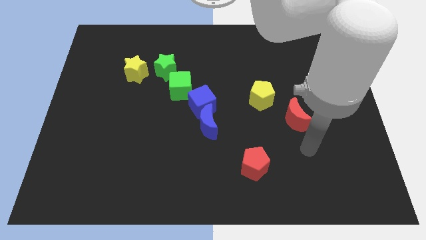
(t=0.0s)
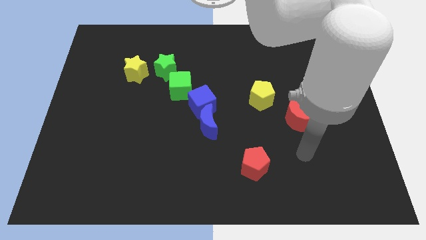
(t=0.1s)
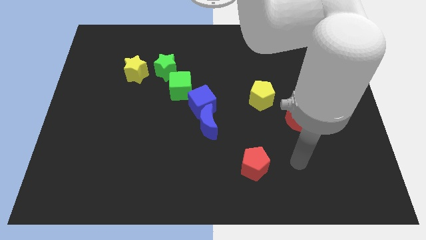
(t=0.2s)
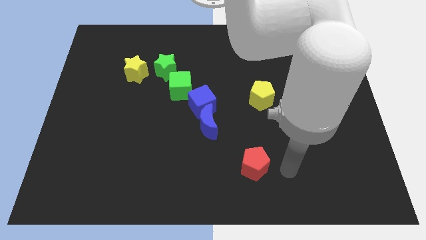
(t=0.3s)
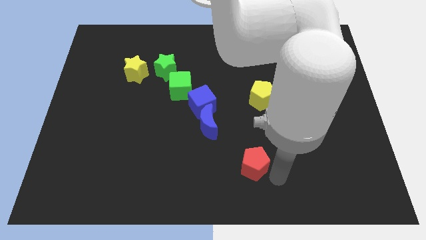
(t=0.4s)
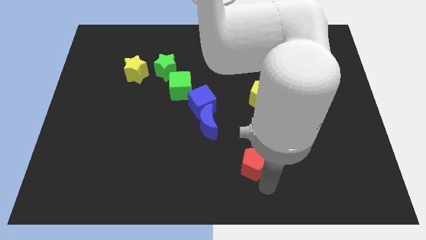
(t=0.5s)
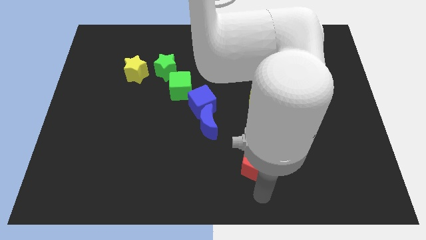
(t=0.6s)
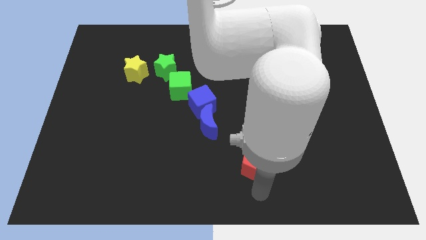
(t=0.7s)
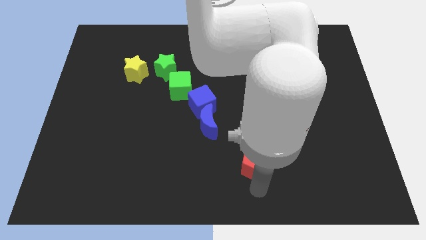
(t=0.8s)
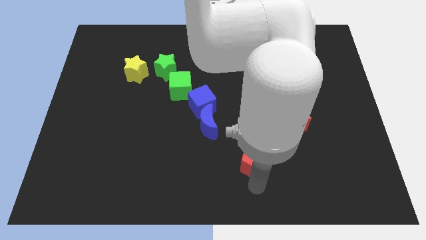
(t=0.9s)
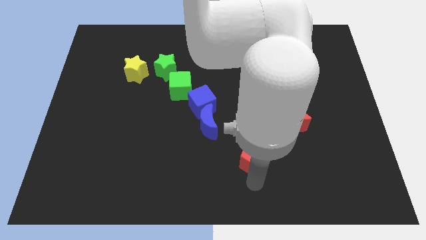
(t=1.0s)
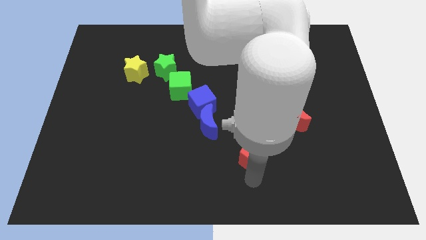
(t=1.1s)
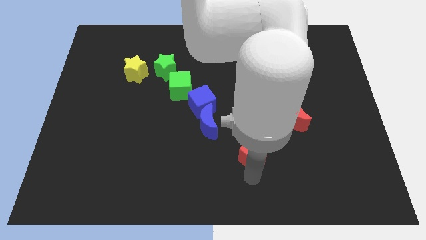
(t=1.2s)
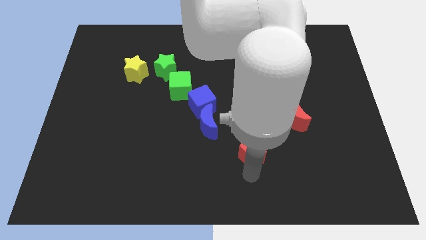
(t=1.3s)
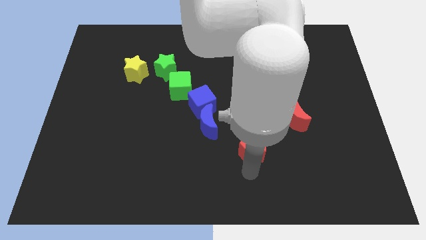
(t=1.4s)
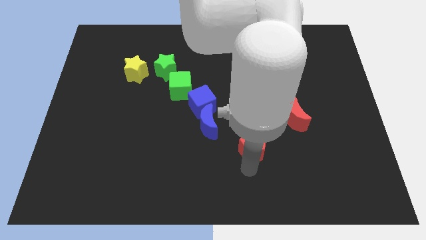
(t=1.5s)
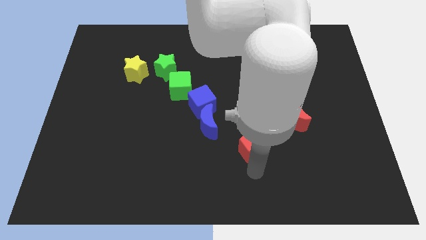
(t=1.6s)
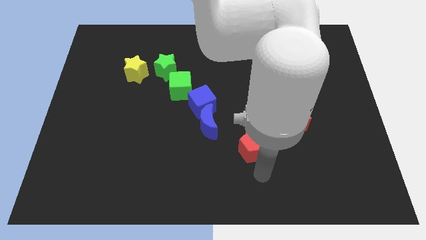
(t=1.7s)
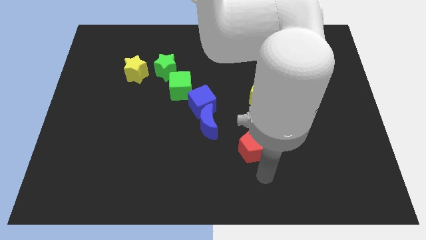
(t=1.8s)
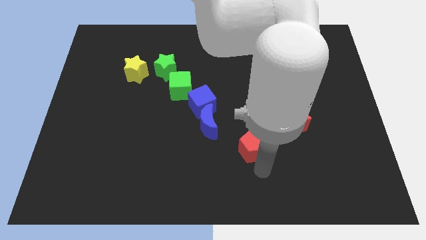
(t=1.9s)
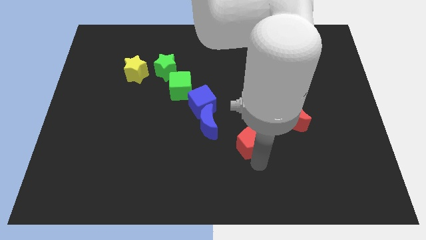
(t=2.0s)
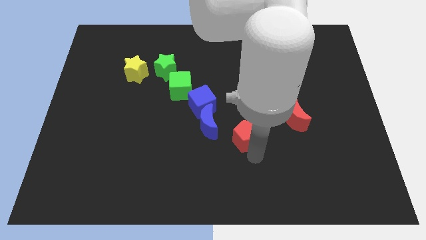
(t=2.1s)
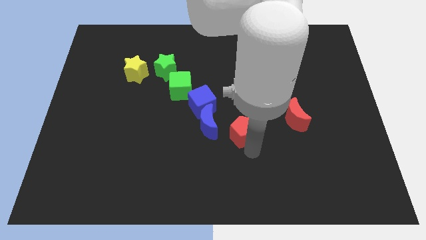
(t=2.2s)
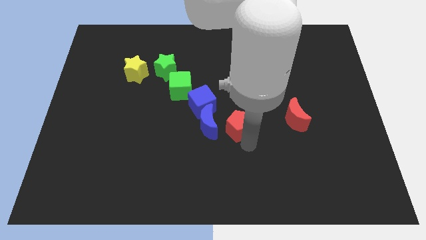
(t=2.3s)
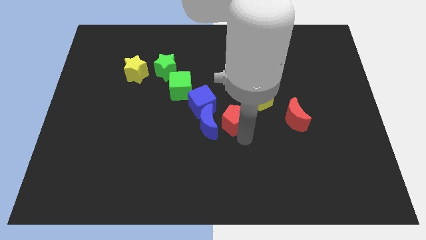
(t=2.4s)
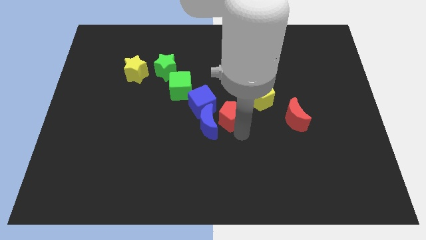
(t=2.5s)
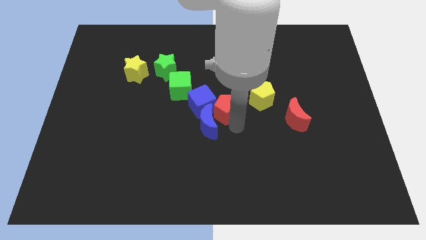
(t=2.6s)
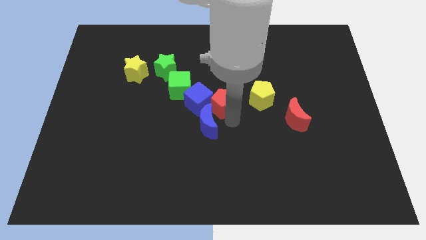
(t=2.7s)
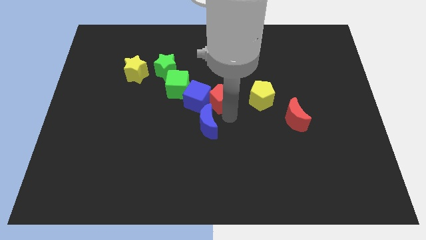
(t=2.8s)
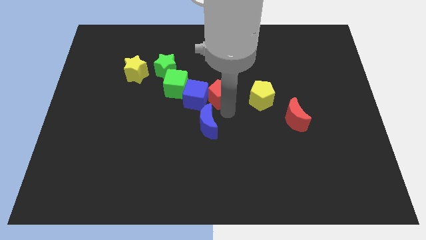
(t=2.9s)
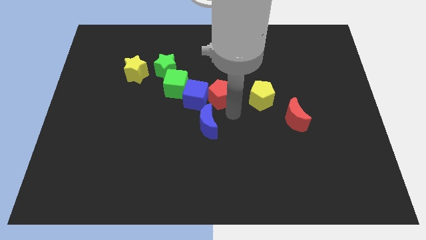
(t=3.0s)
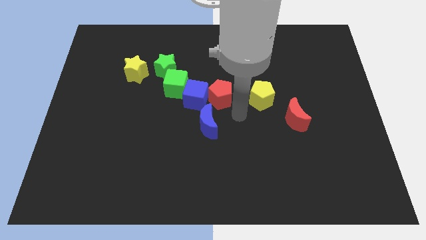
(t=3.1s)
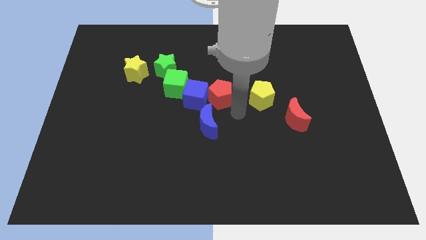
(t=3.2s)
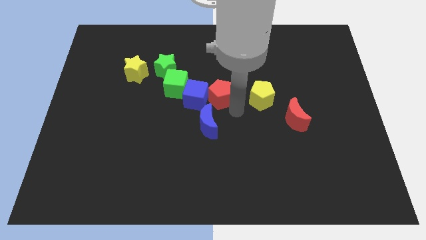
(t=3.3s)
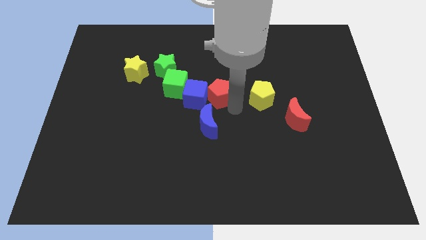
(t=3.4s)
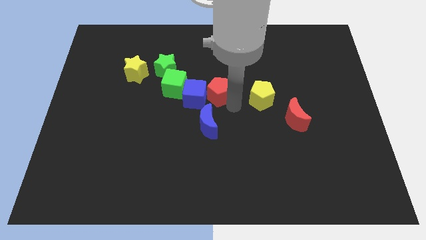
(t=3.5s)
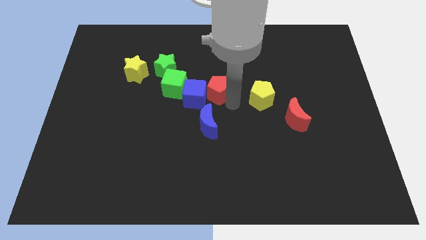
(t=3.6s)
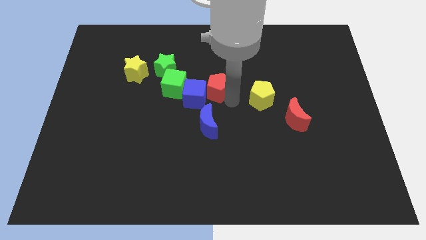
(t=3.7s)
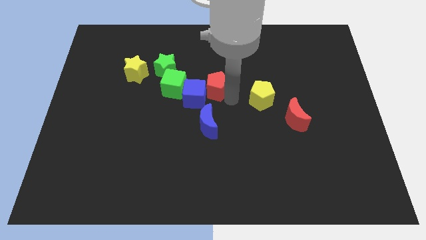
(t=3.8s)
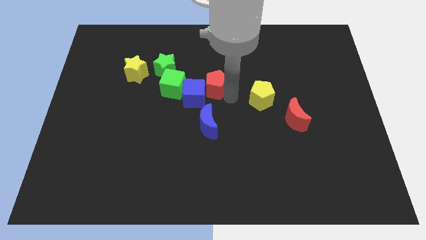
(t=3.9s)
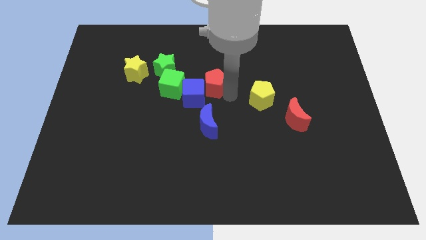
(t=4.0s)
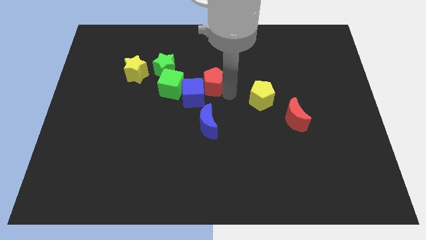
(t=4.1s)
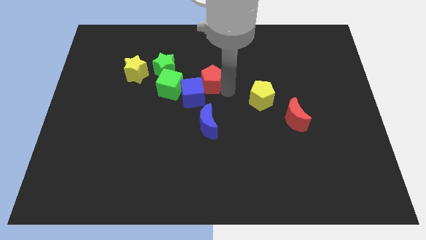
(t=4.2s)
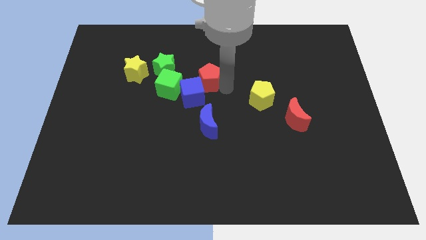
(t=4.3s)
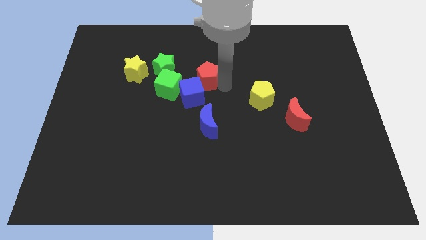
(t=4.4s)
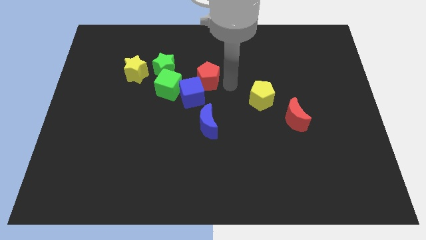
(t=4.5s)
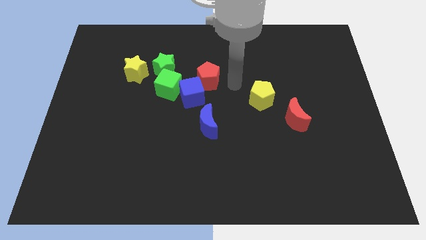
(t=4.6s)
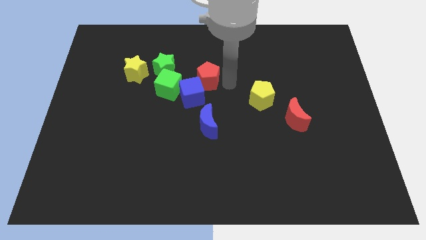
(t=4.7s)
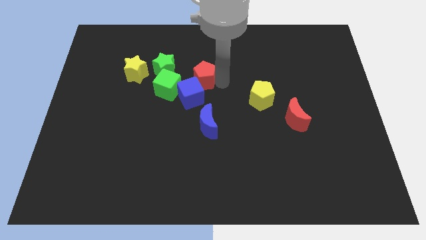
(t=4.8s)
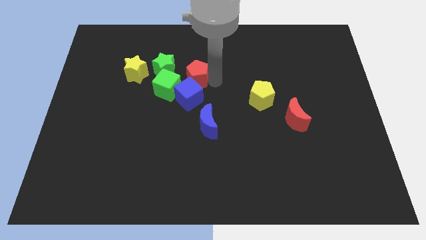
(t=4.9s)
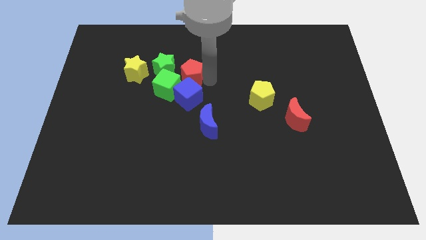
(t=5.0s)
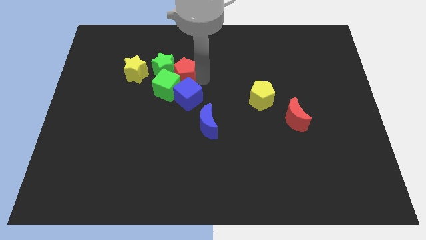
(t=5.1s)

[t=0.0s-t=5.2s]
put the red pentagon towards the green star

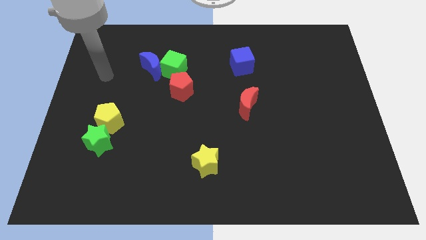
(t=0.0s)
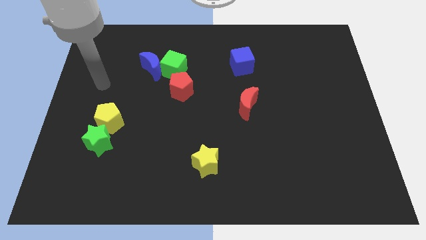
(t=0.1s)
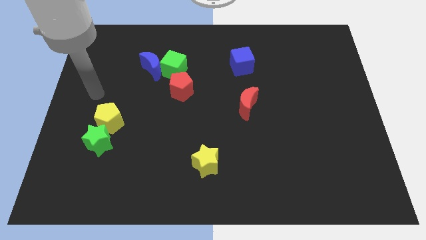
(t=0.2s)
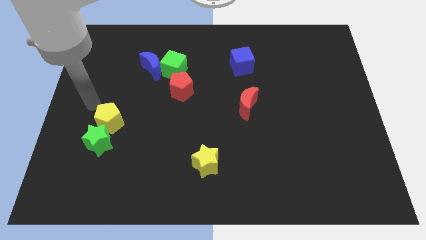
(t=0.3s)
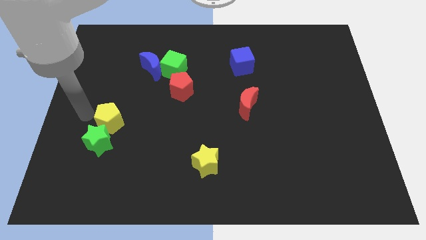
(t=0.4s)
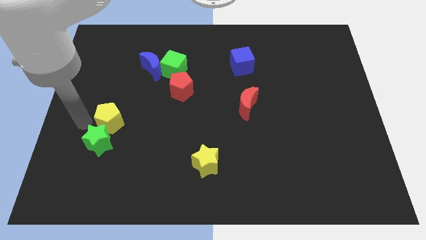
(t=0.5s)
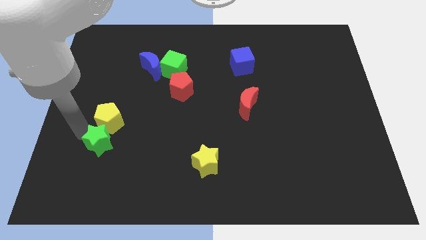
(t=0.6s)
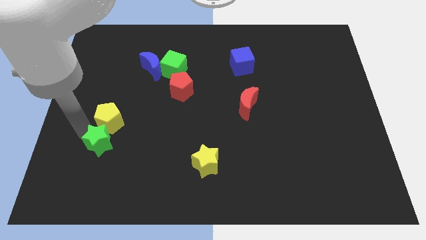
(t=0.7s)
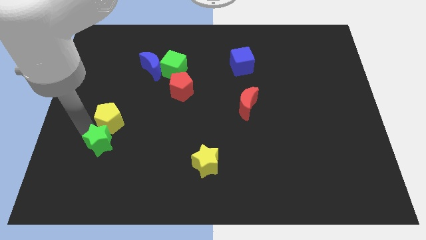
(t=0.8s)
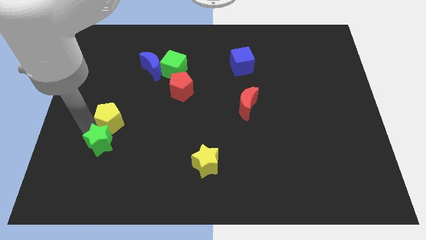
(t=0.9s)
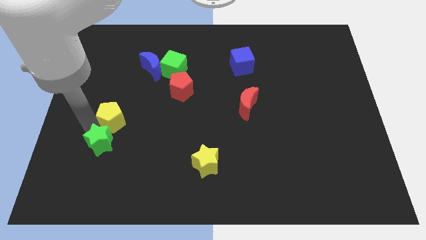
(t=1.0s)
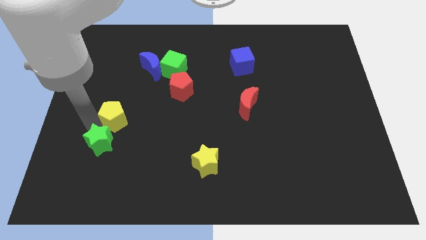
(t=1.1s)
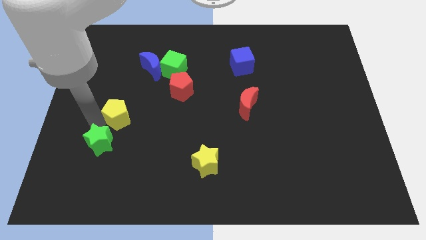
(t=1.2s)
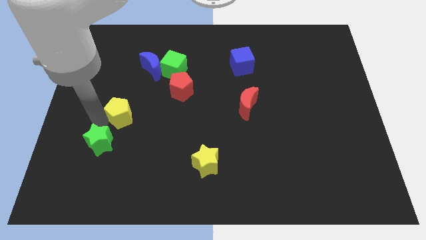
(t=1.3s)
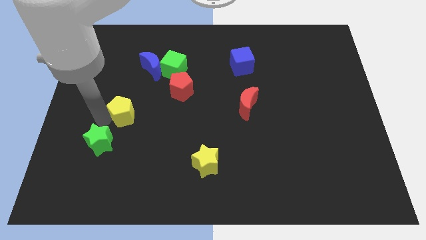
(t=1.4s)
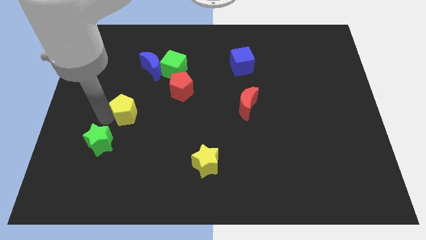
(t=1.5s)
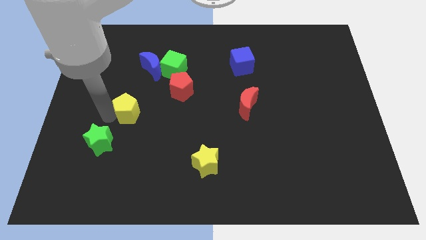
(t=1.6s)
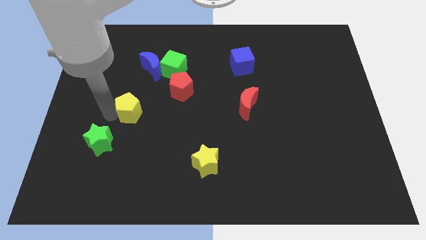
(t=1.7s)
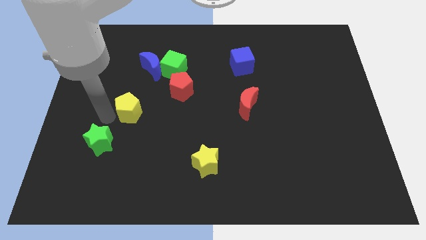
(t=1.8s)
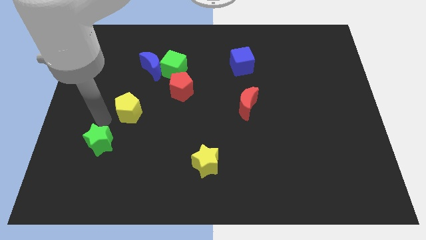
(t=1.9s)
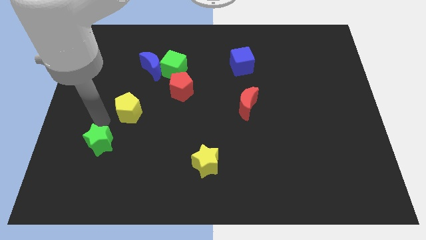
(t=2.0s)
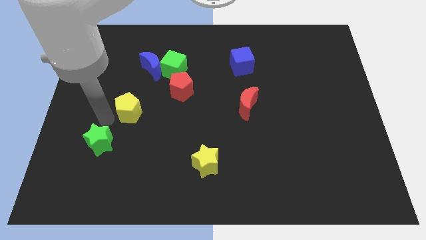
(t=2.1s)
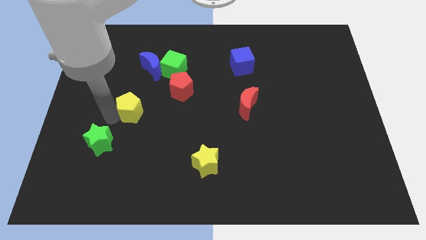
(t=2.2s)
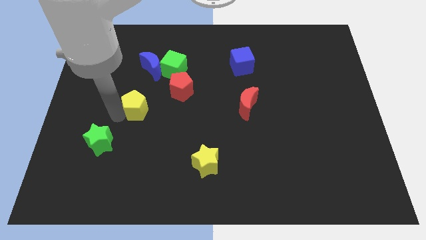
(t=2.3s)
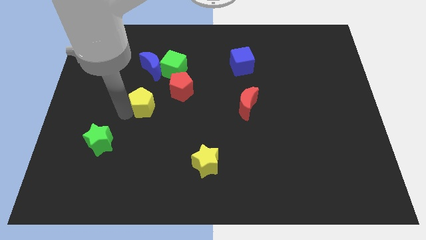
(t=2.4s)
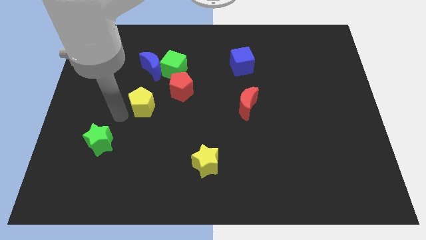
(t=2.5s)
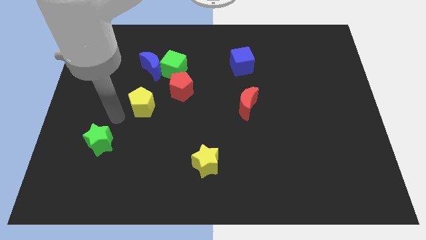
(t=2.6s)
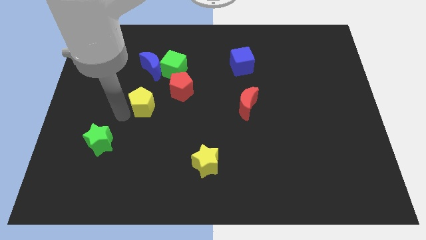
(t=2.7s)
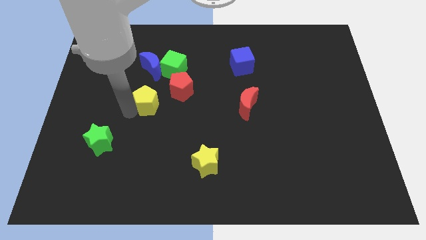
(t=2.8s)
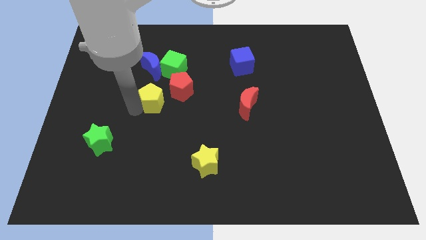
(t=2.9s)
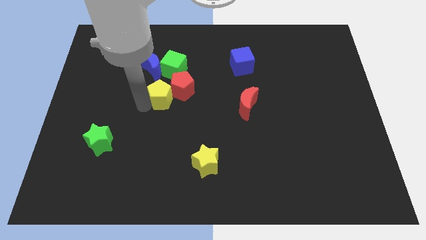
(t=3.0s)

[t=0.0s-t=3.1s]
slide the yellow pentagon to the red pentagon
